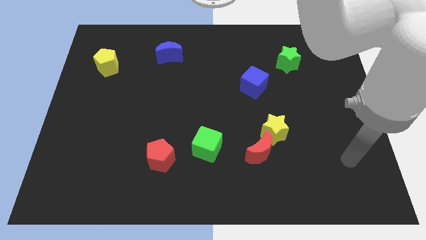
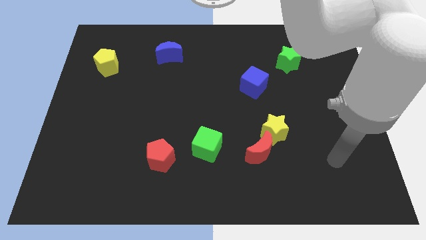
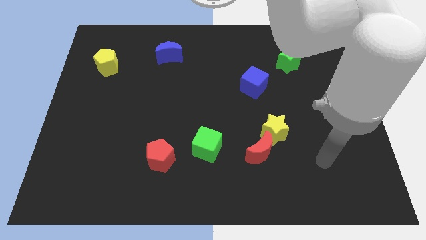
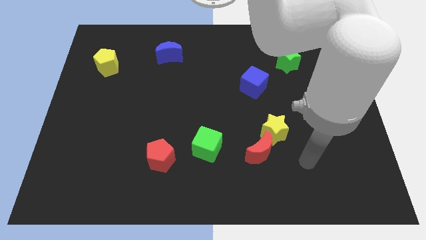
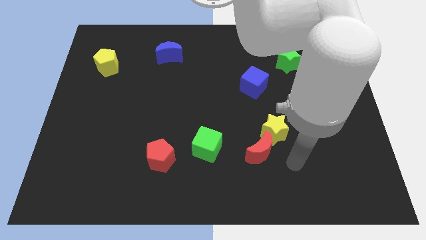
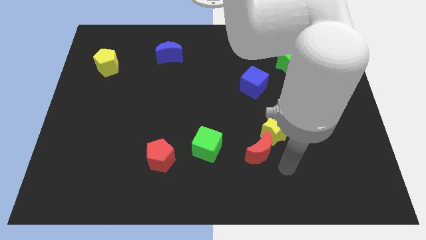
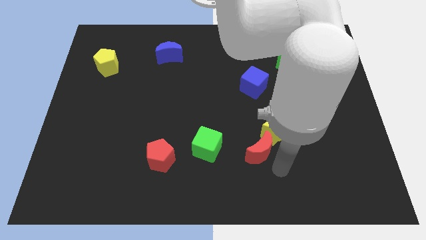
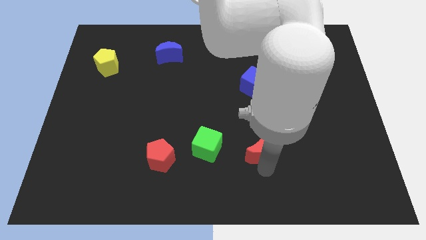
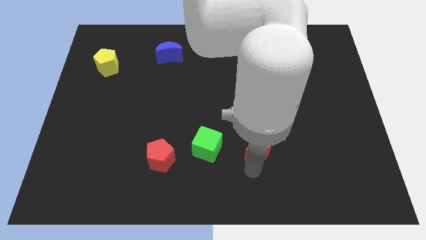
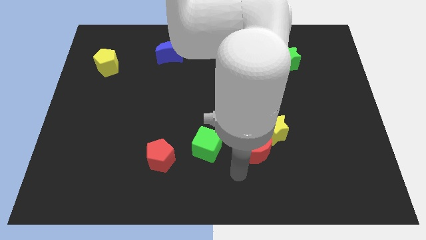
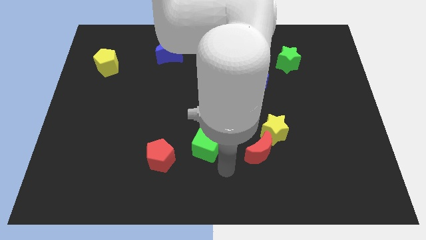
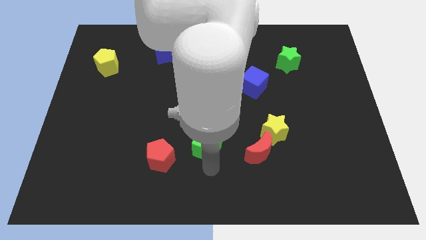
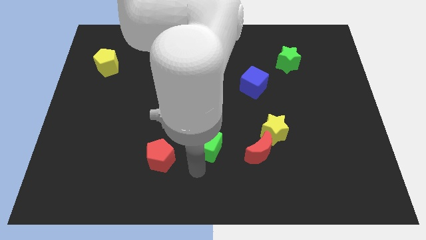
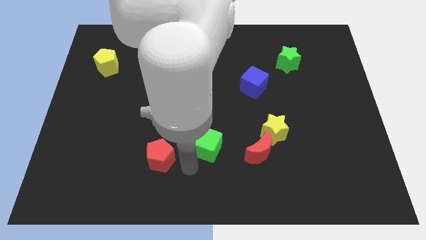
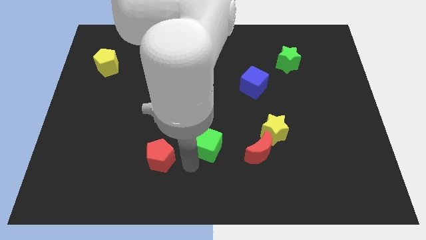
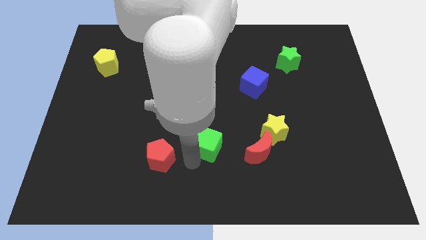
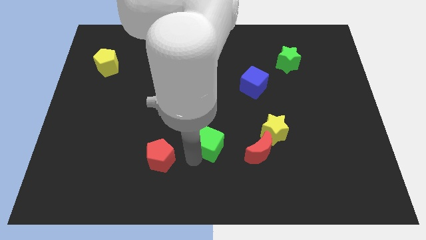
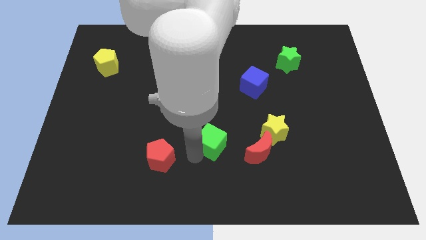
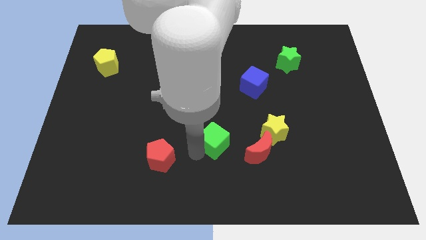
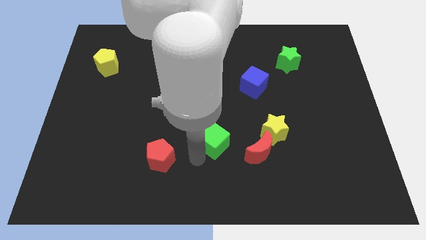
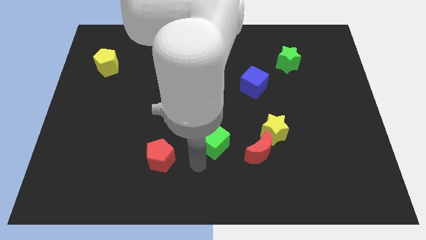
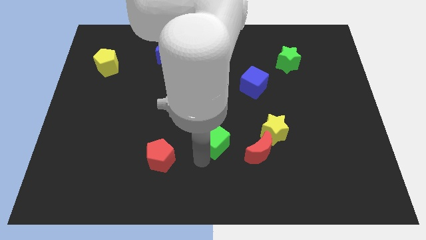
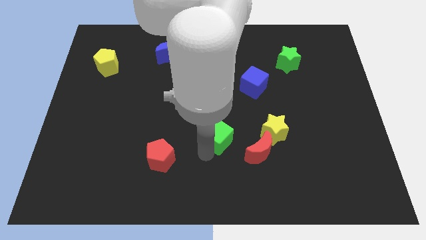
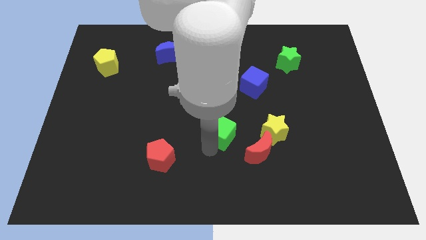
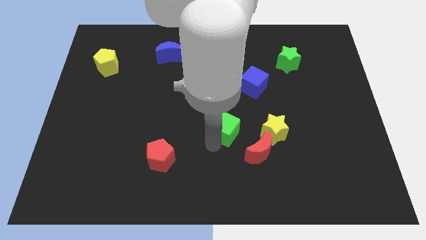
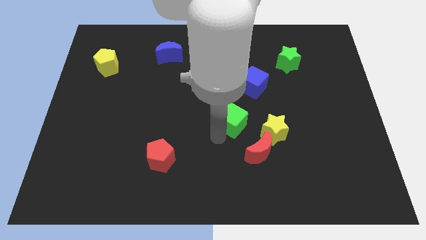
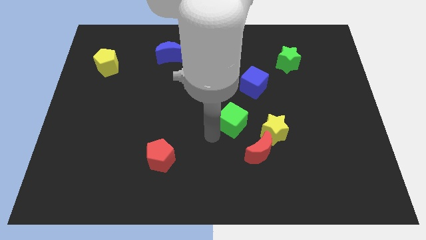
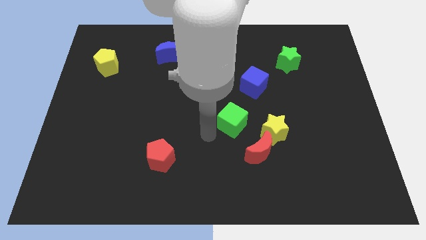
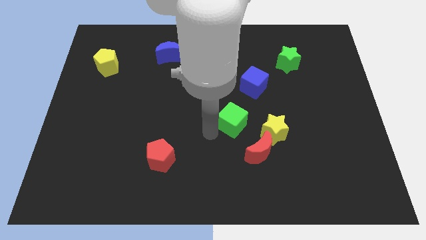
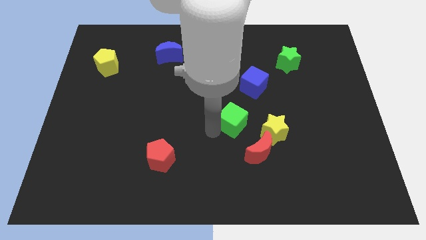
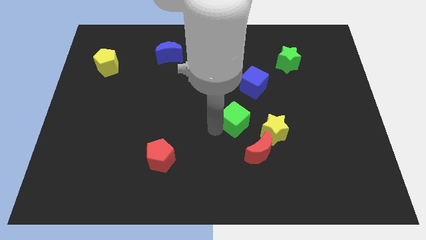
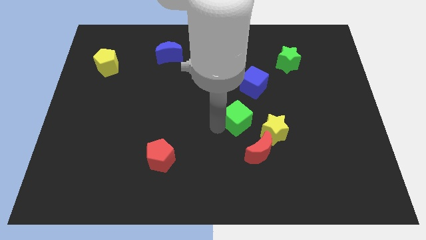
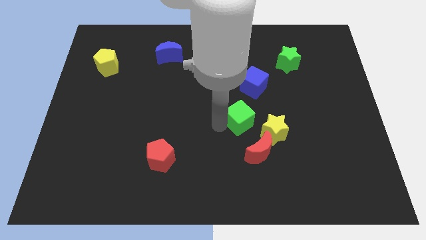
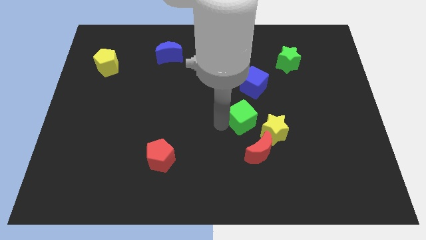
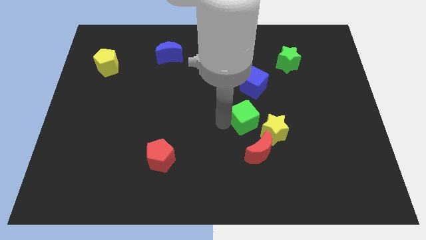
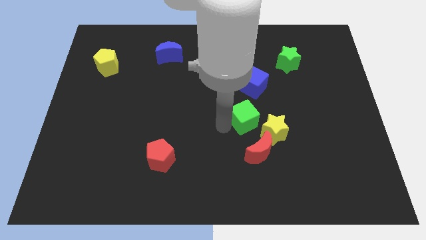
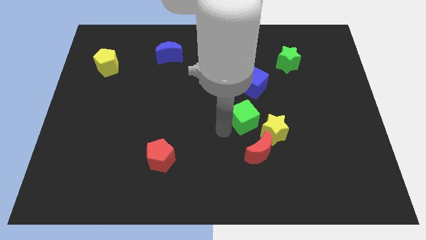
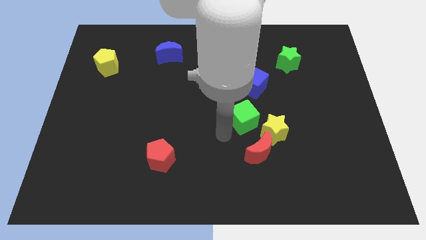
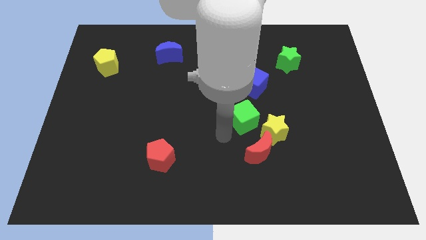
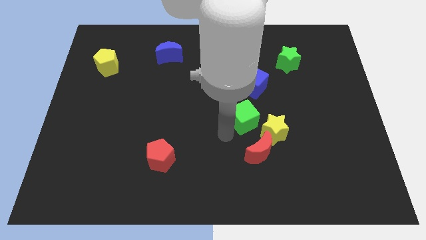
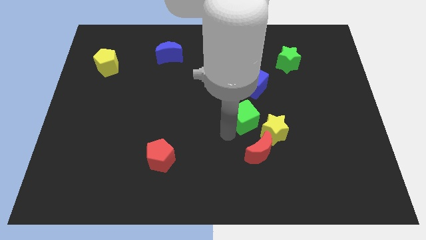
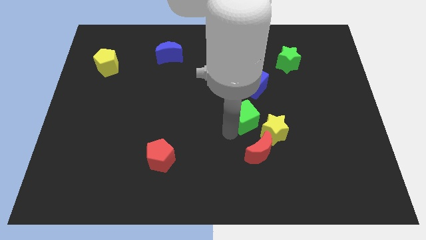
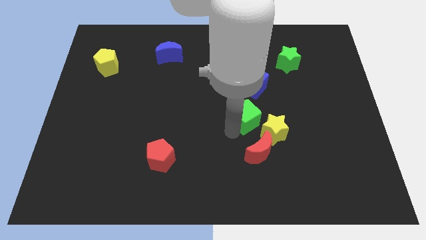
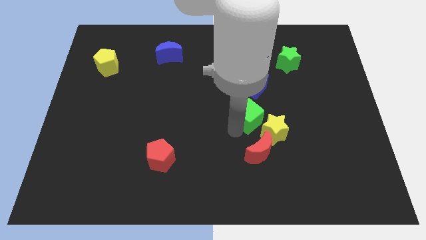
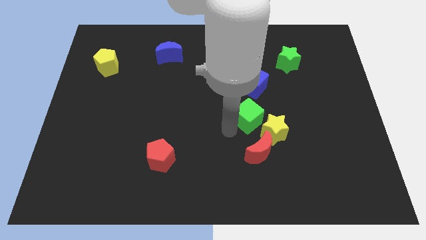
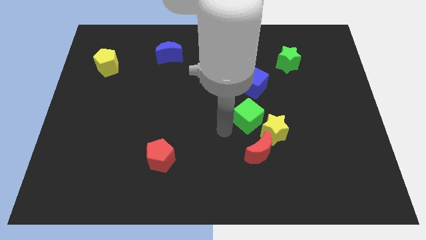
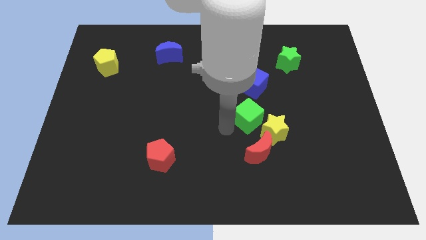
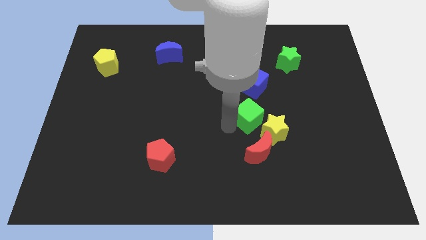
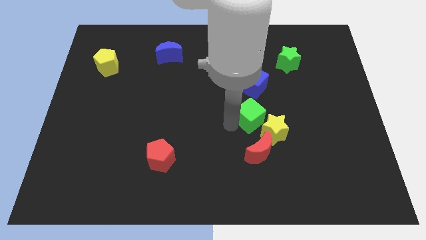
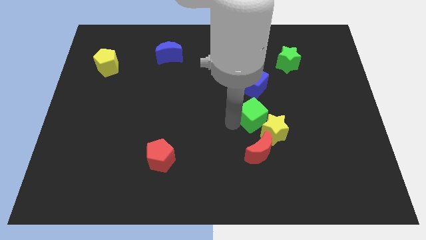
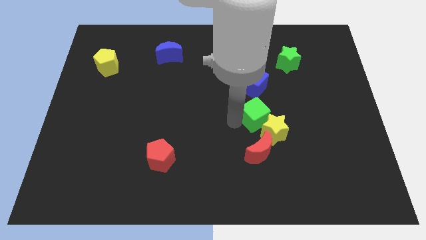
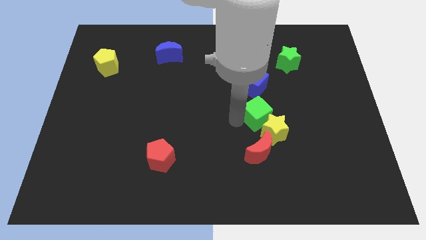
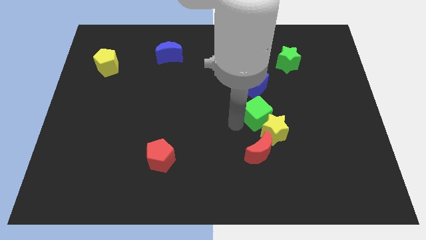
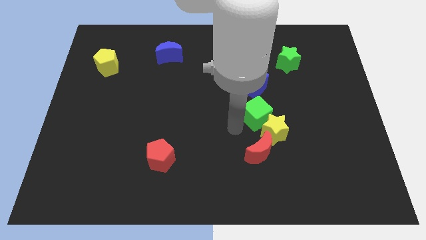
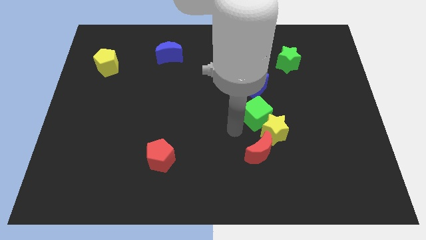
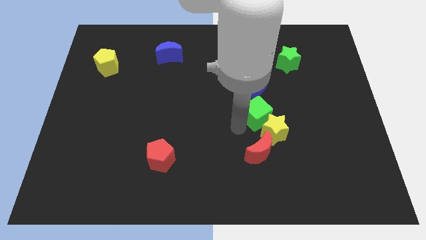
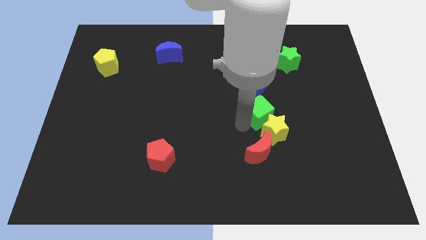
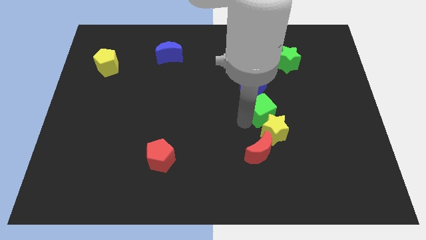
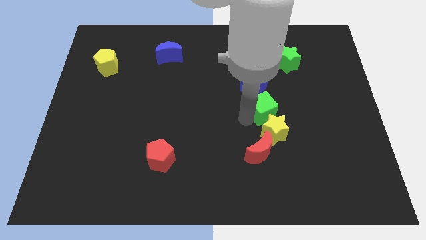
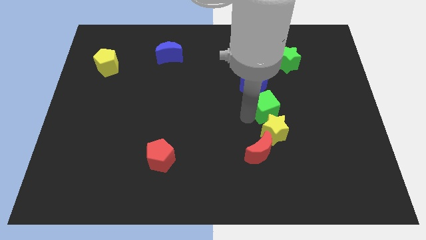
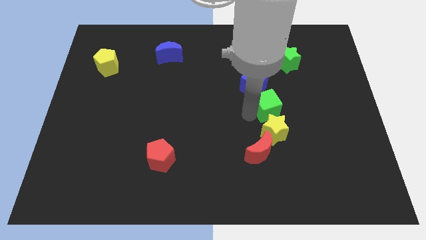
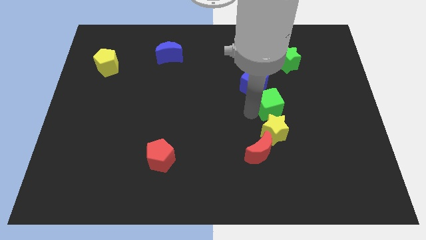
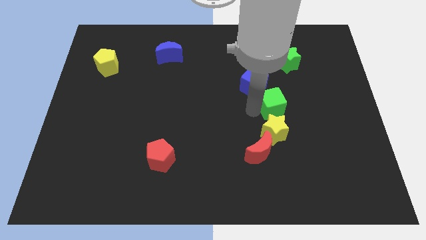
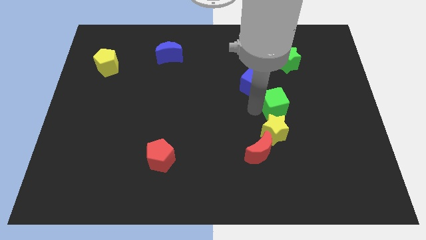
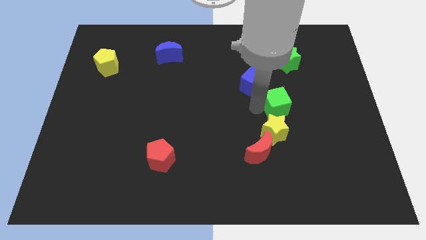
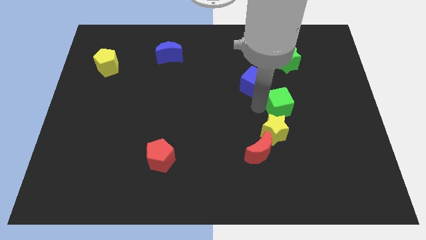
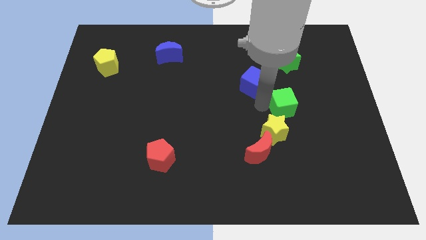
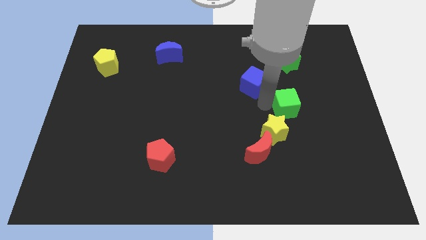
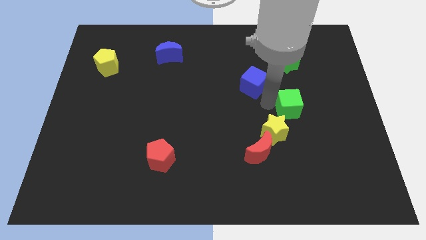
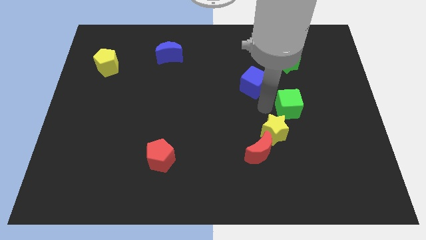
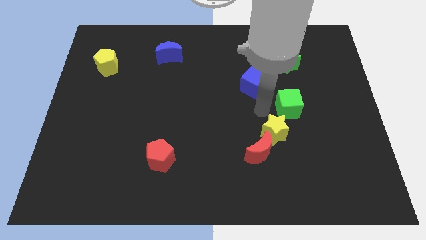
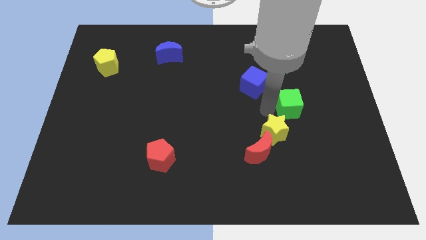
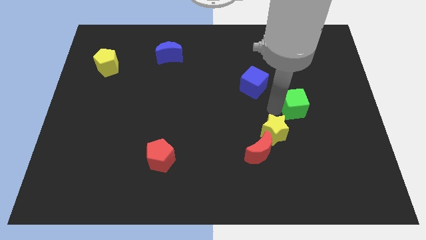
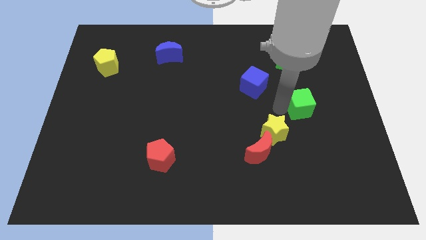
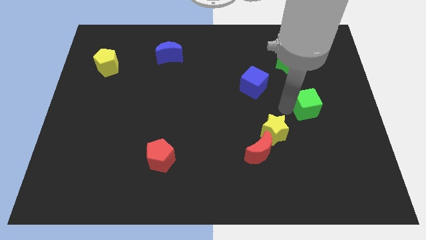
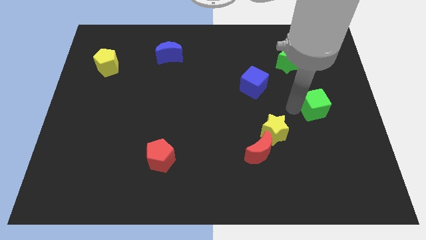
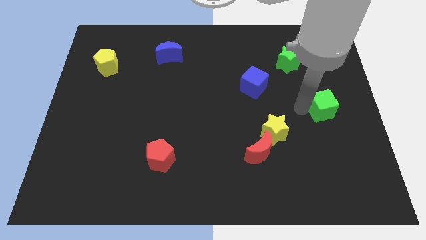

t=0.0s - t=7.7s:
put the green cube to the center right
